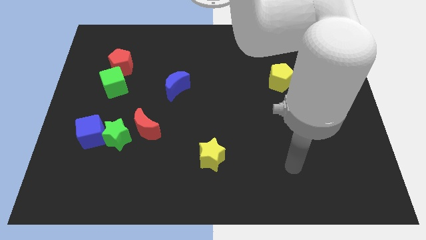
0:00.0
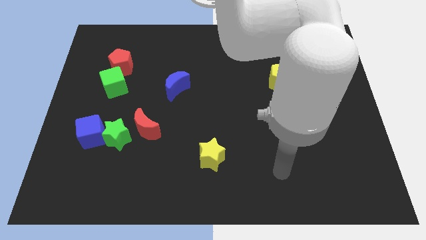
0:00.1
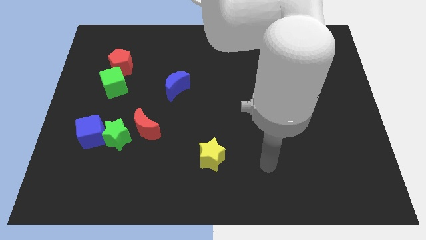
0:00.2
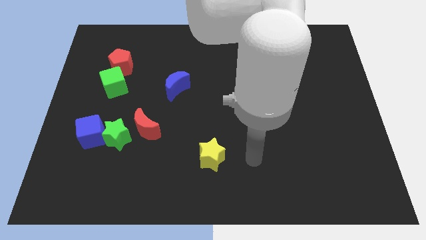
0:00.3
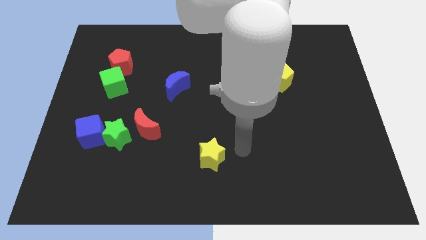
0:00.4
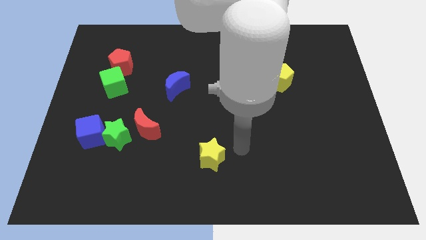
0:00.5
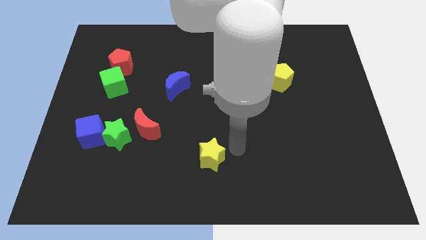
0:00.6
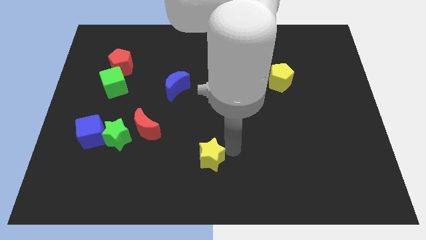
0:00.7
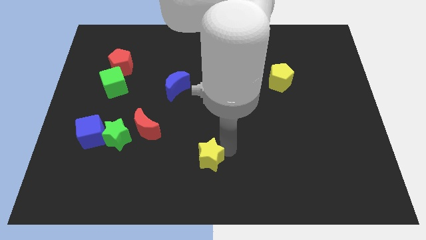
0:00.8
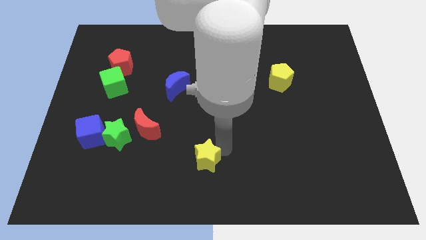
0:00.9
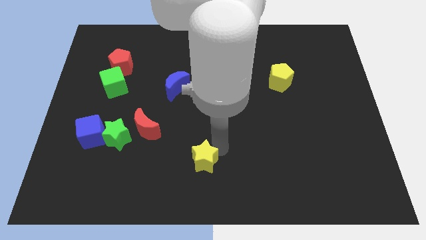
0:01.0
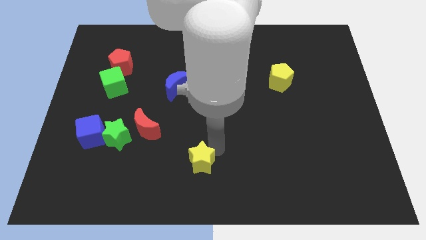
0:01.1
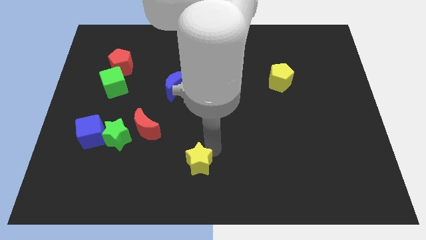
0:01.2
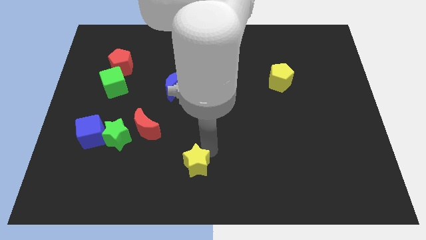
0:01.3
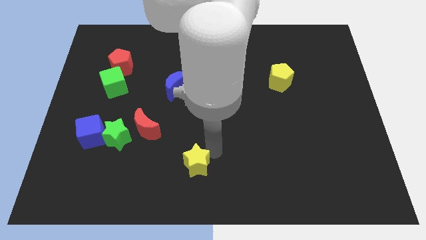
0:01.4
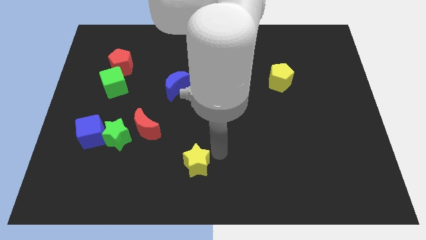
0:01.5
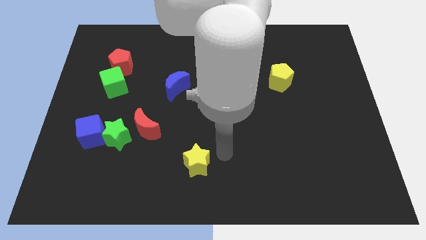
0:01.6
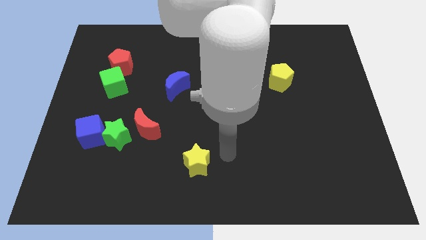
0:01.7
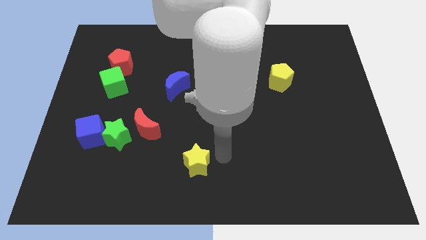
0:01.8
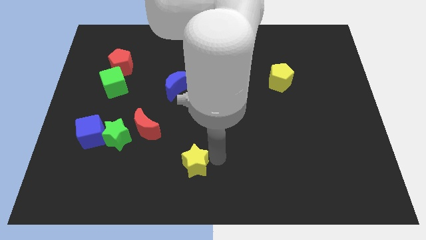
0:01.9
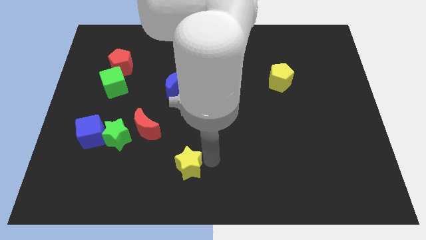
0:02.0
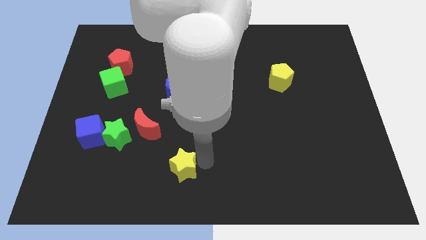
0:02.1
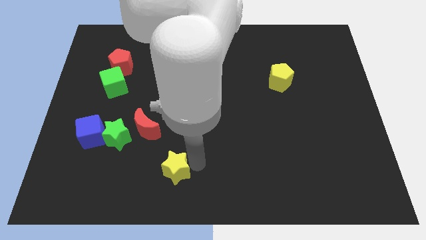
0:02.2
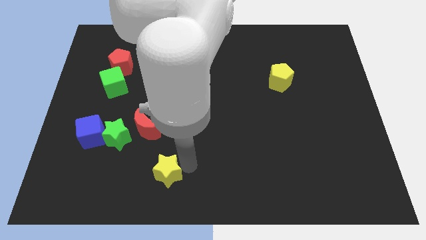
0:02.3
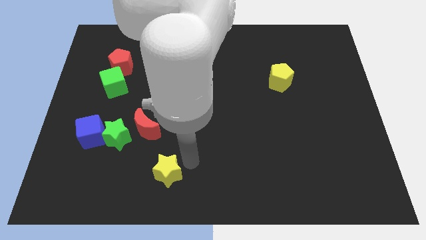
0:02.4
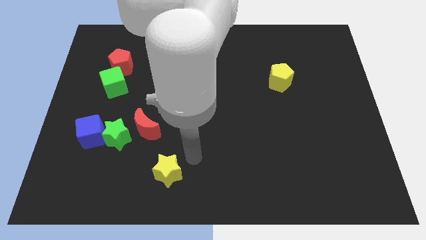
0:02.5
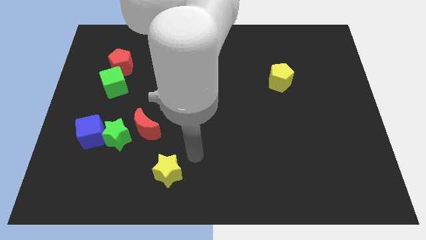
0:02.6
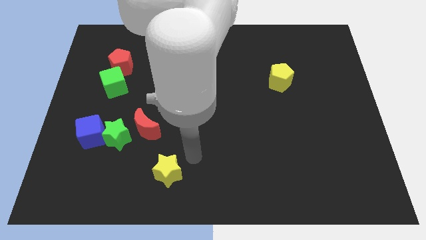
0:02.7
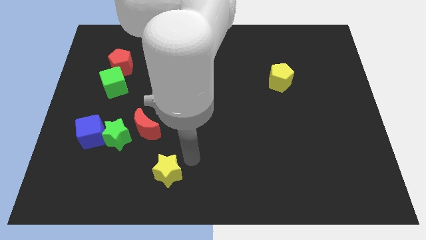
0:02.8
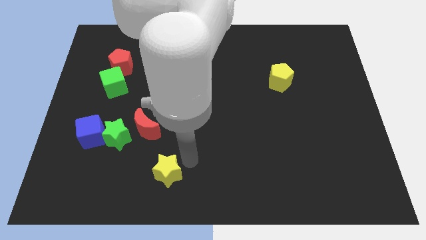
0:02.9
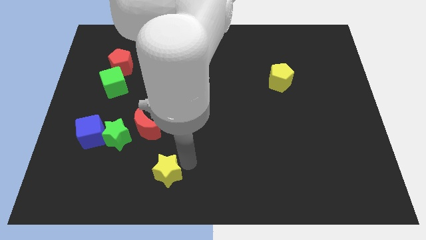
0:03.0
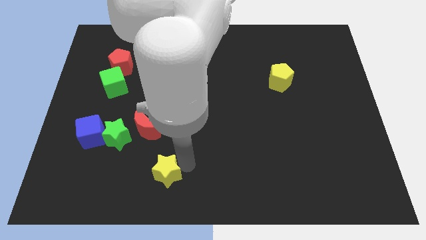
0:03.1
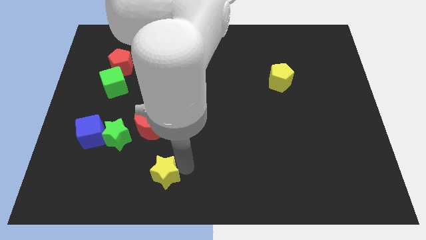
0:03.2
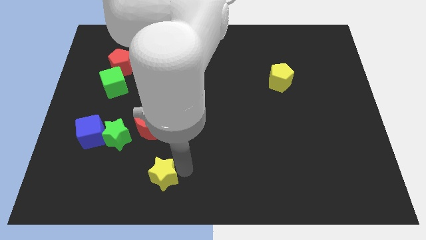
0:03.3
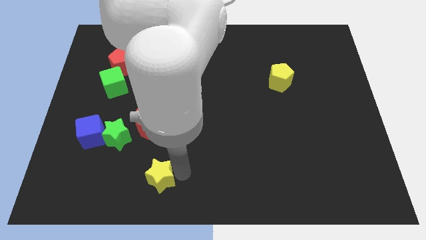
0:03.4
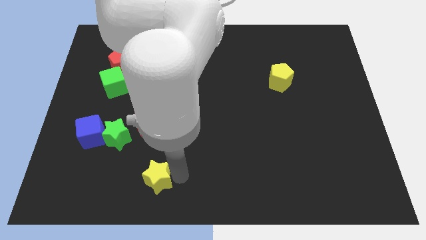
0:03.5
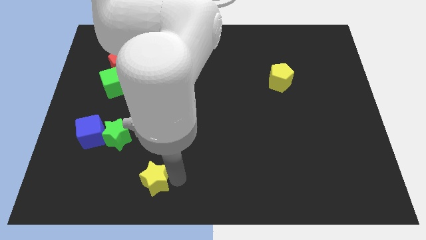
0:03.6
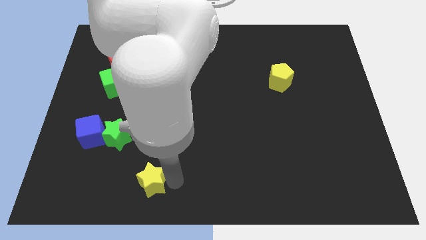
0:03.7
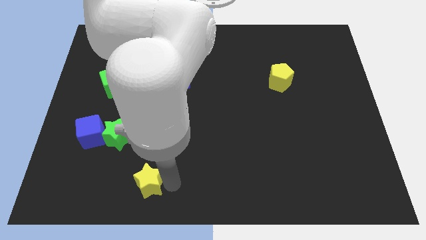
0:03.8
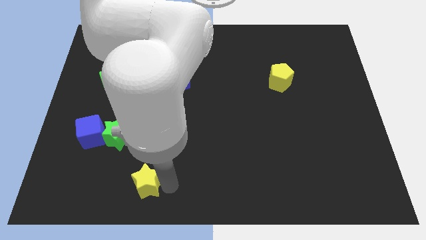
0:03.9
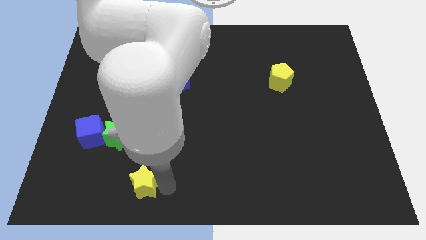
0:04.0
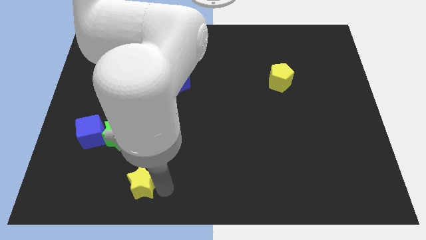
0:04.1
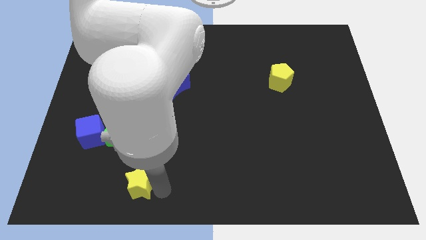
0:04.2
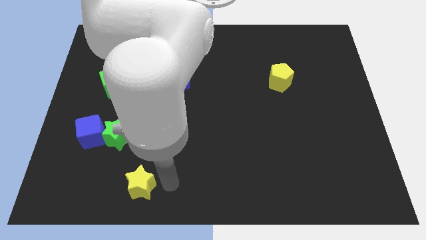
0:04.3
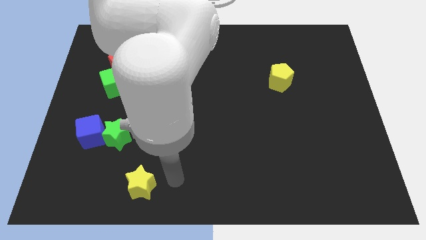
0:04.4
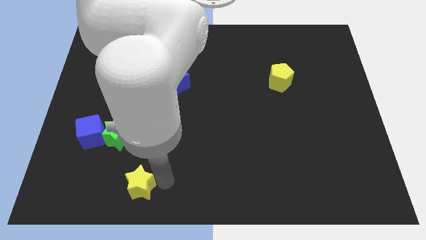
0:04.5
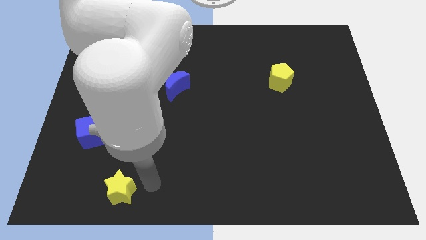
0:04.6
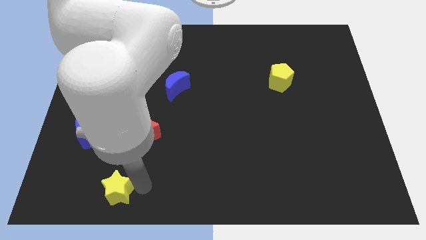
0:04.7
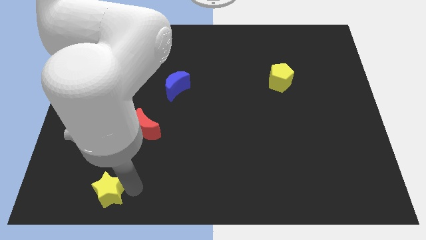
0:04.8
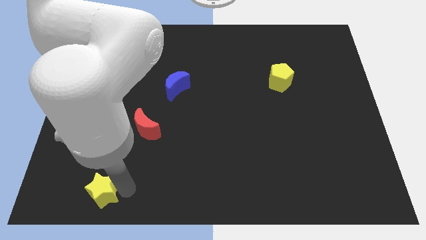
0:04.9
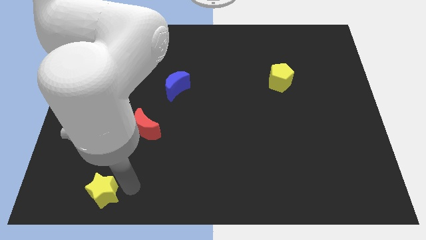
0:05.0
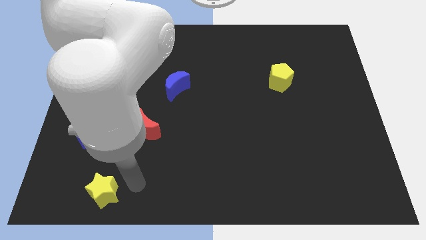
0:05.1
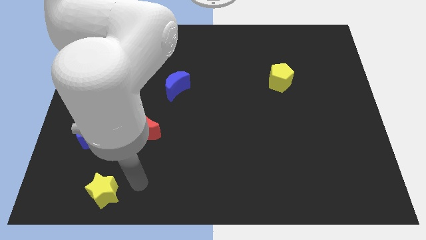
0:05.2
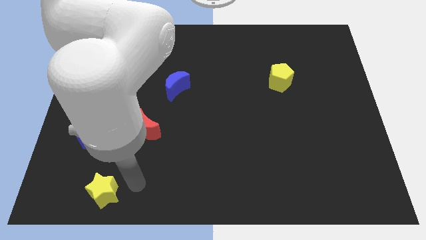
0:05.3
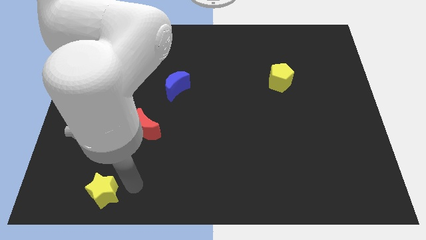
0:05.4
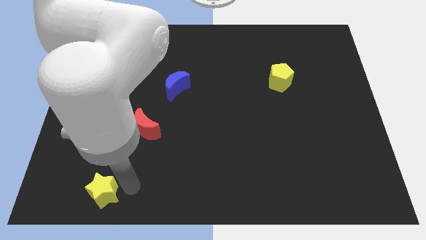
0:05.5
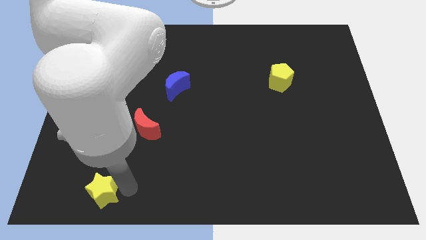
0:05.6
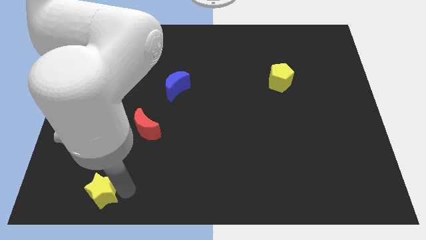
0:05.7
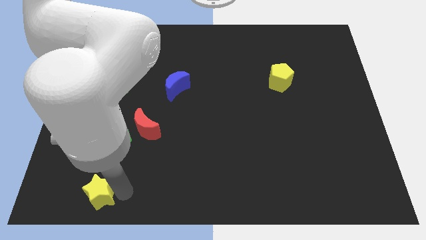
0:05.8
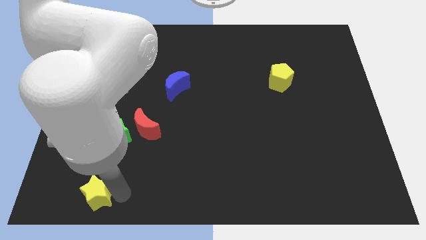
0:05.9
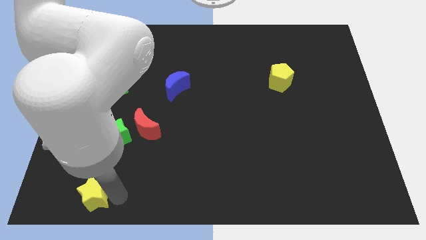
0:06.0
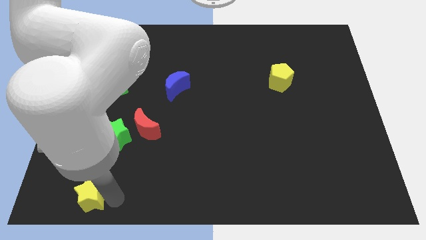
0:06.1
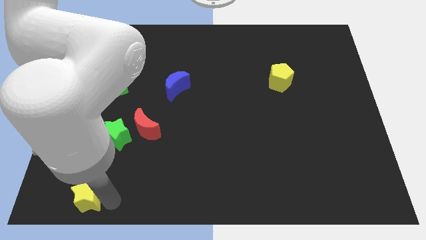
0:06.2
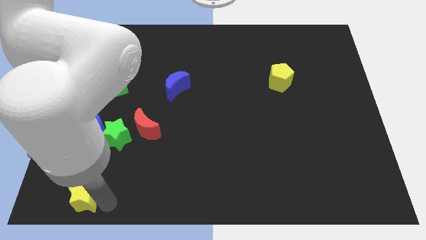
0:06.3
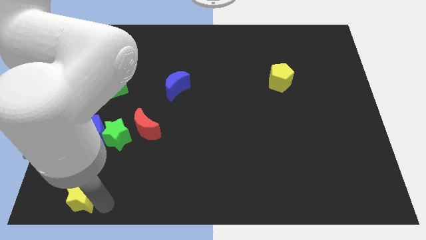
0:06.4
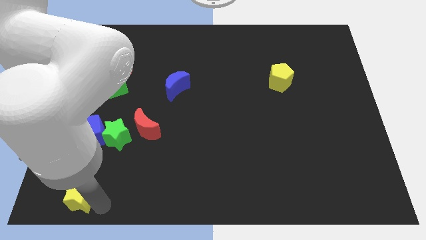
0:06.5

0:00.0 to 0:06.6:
slide the yellow star to the bottom left

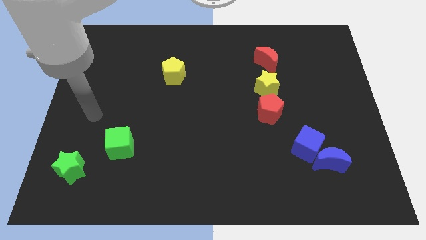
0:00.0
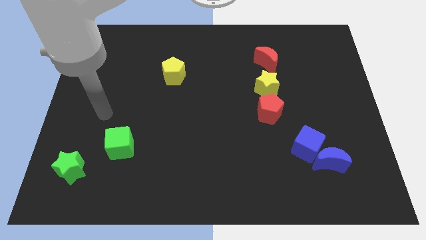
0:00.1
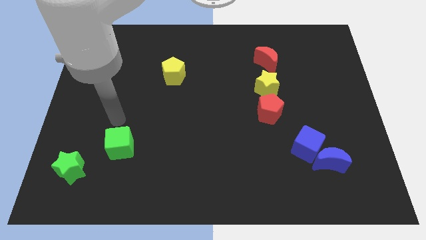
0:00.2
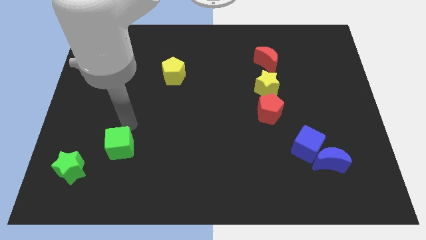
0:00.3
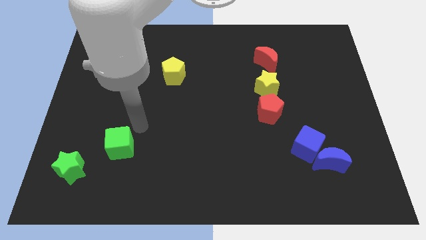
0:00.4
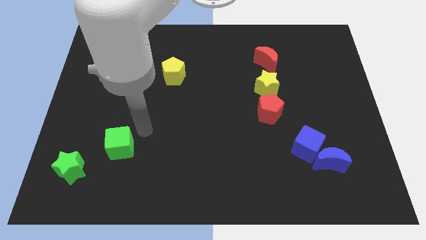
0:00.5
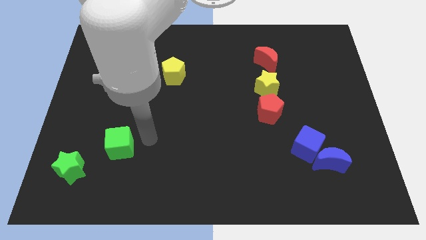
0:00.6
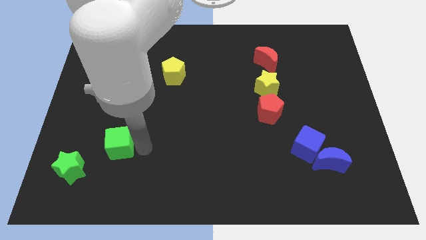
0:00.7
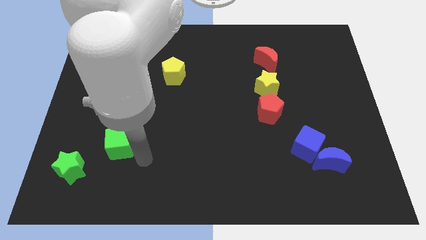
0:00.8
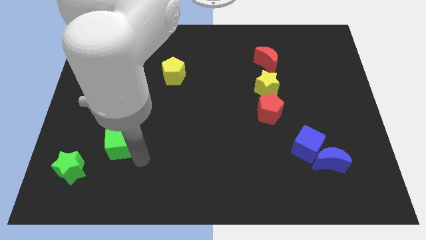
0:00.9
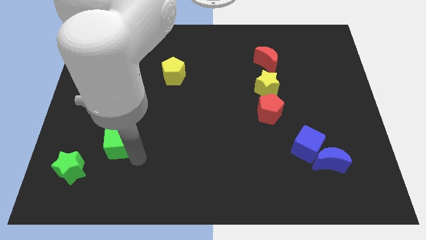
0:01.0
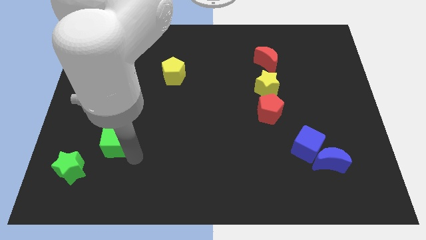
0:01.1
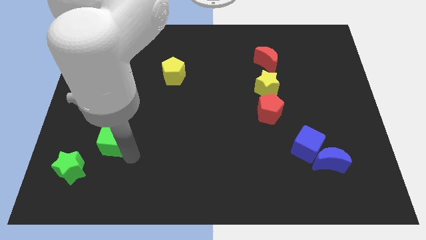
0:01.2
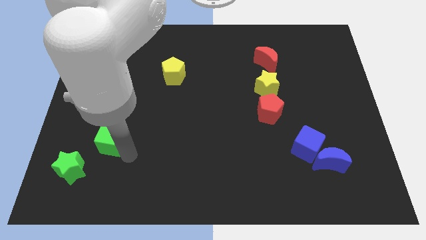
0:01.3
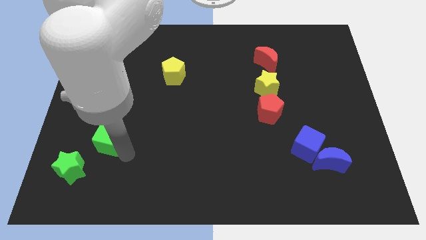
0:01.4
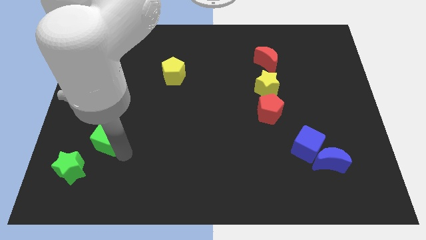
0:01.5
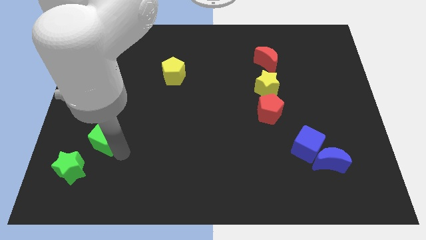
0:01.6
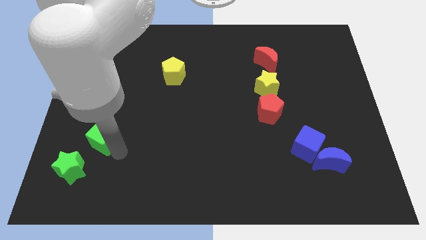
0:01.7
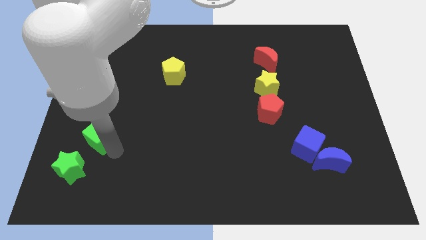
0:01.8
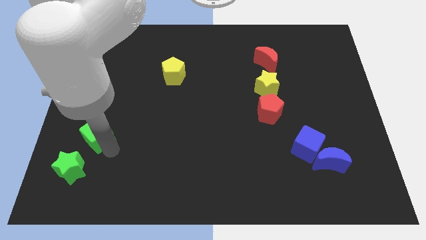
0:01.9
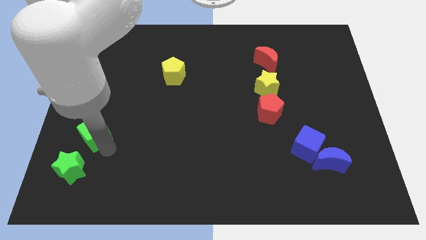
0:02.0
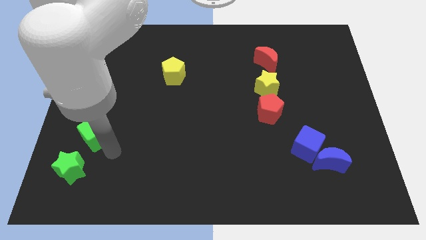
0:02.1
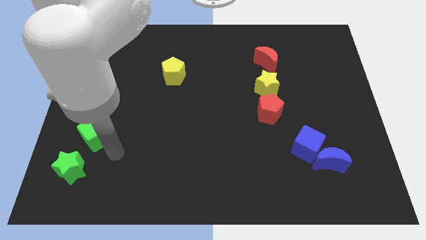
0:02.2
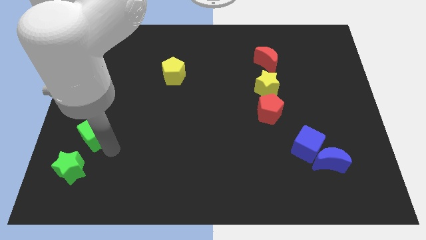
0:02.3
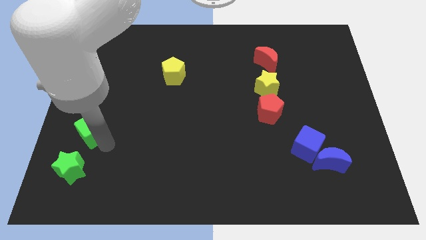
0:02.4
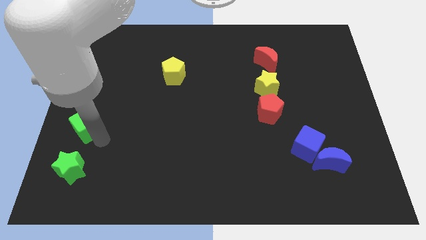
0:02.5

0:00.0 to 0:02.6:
push the green cube to the left side of the board
